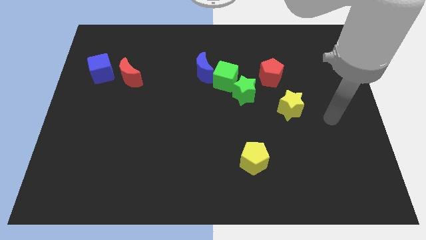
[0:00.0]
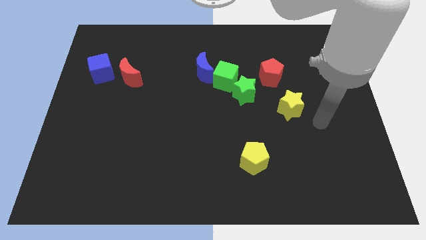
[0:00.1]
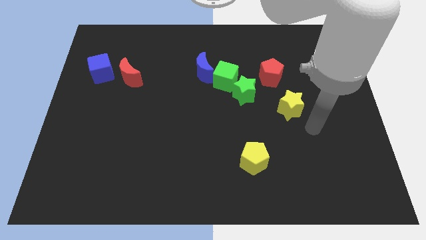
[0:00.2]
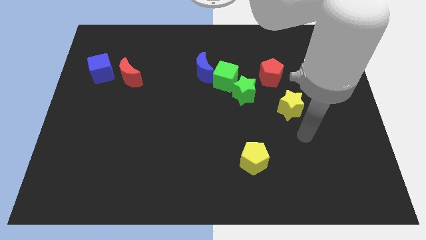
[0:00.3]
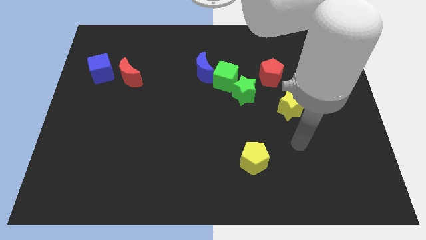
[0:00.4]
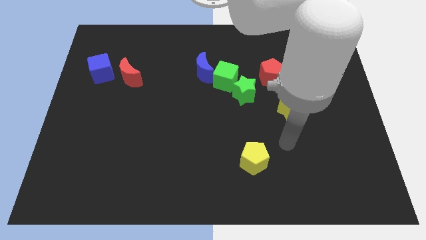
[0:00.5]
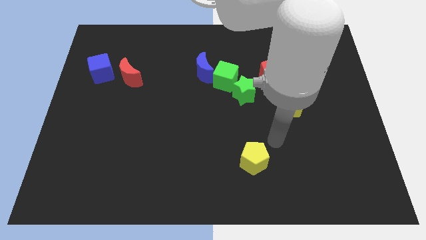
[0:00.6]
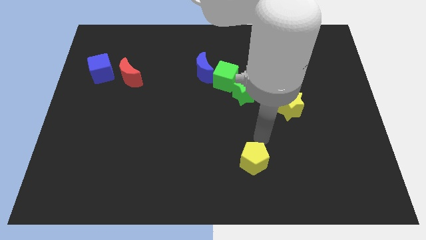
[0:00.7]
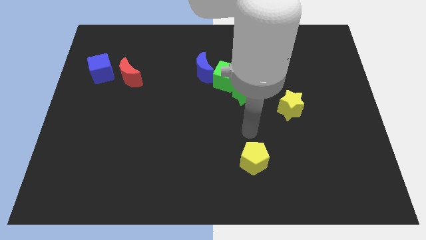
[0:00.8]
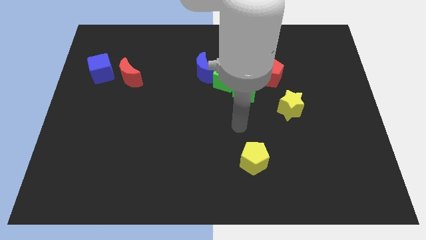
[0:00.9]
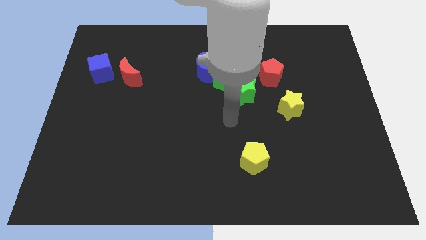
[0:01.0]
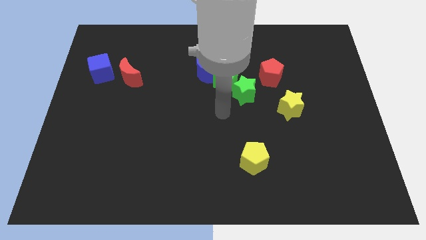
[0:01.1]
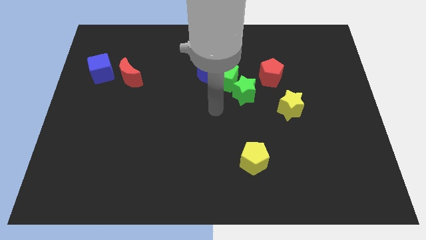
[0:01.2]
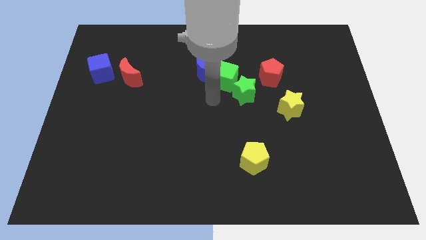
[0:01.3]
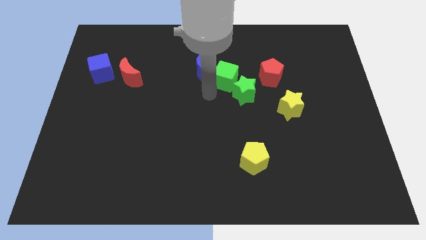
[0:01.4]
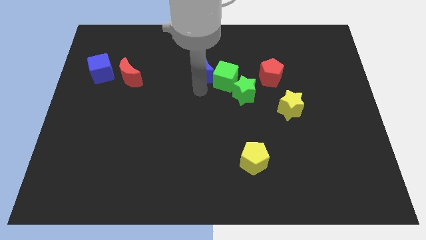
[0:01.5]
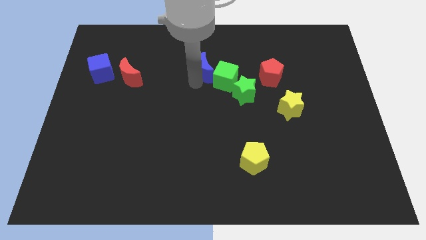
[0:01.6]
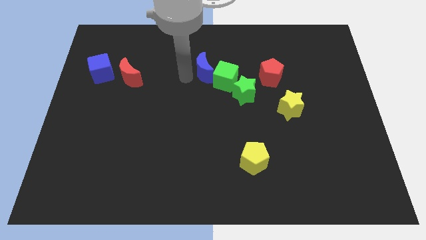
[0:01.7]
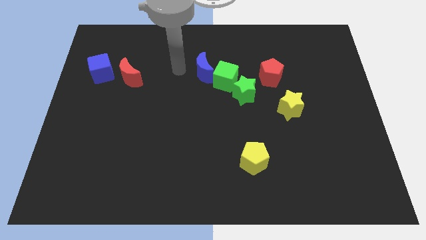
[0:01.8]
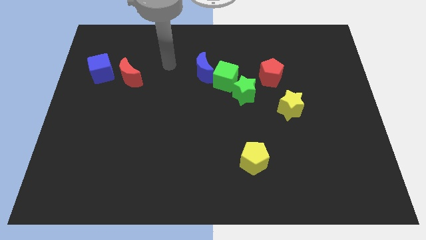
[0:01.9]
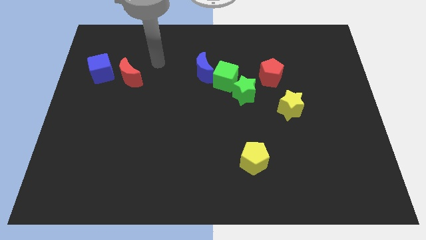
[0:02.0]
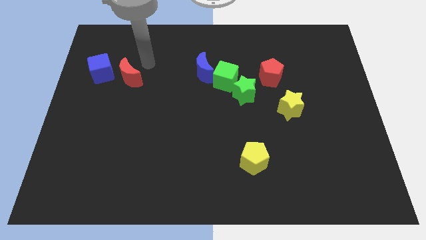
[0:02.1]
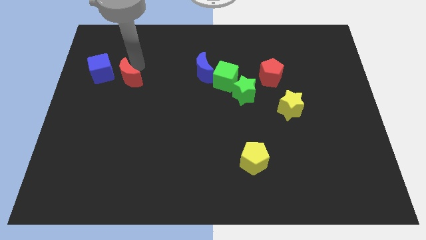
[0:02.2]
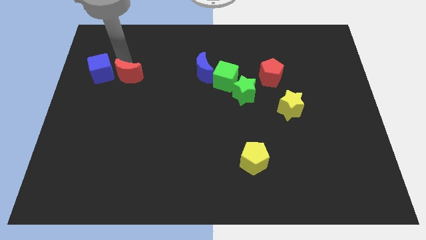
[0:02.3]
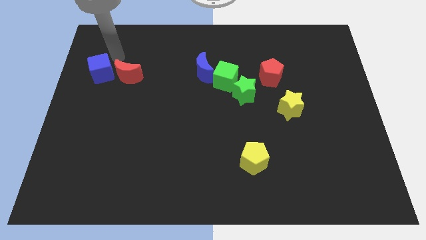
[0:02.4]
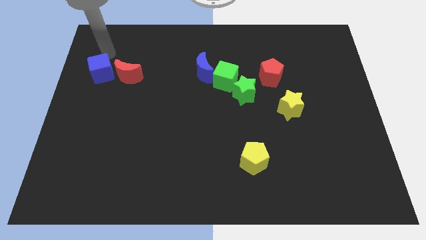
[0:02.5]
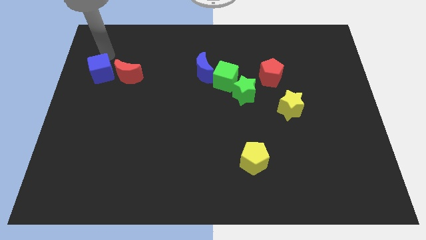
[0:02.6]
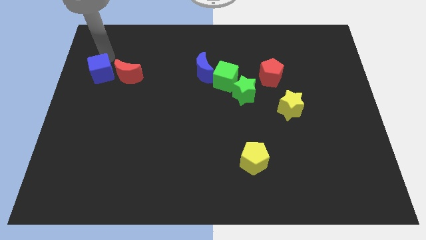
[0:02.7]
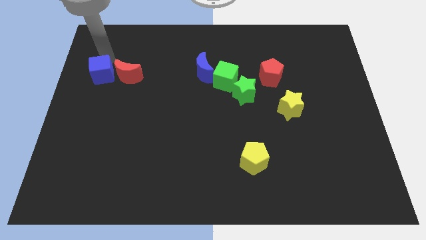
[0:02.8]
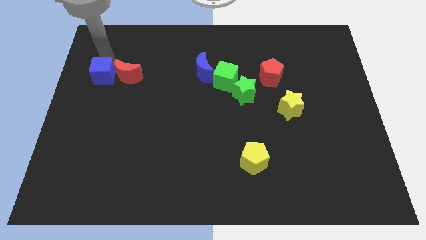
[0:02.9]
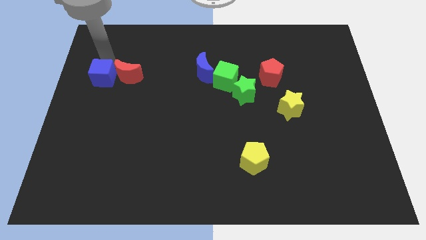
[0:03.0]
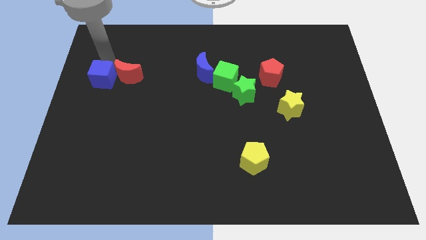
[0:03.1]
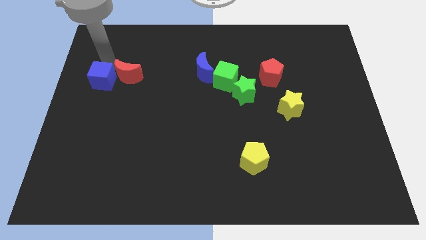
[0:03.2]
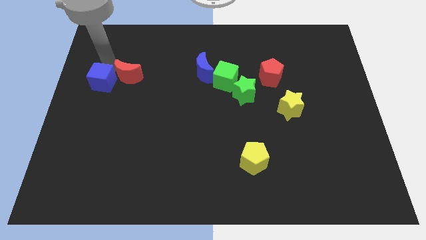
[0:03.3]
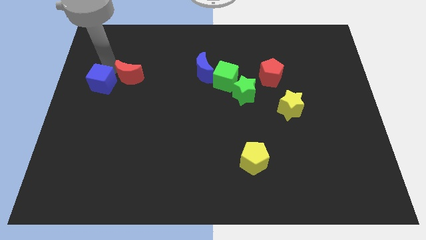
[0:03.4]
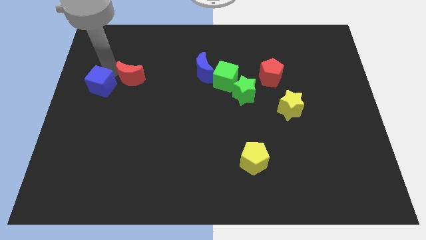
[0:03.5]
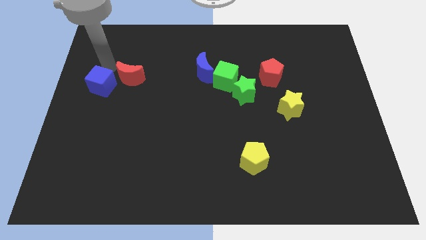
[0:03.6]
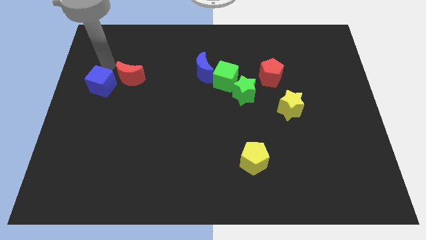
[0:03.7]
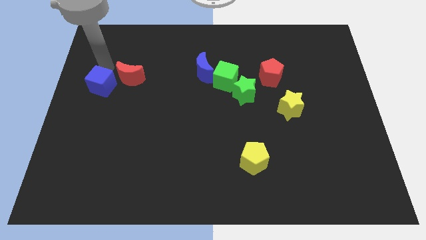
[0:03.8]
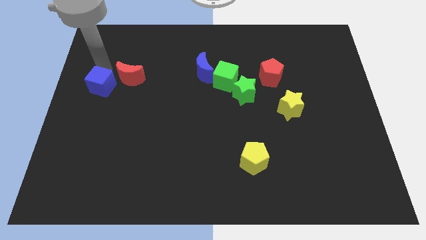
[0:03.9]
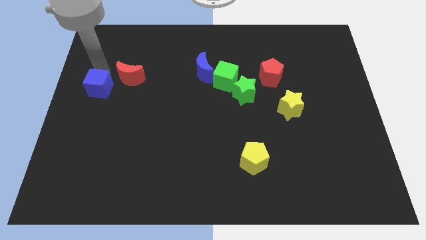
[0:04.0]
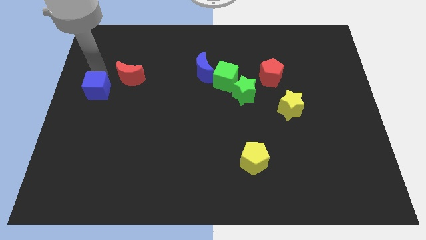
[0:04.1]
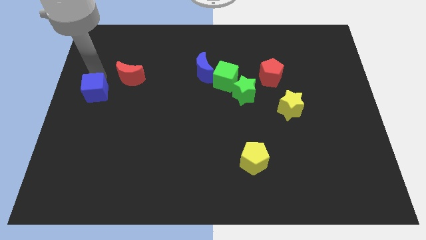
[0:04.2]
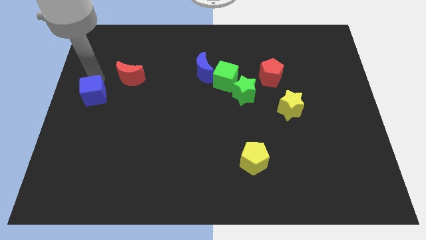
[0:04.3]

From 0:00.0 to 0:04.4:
slide the blue cube a little downwards

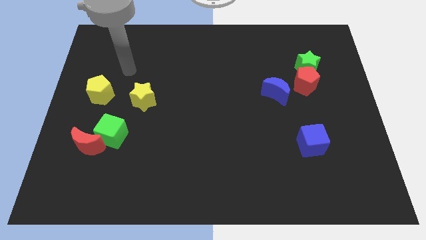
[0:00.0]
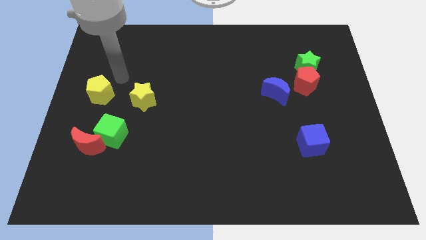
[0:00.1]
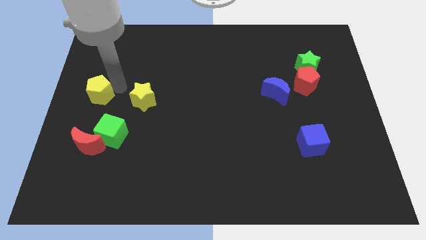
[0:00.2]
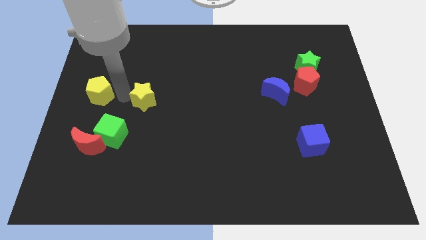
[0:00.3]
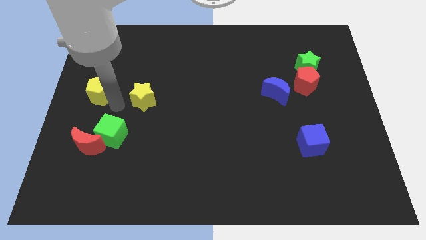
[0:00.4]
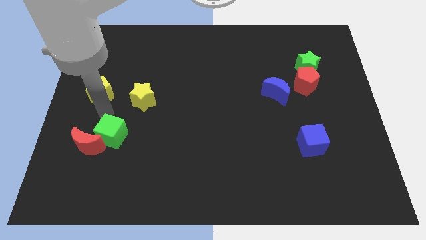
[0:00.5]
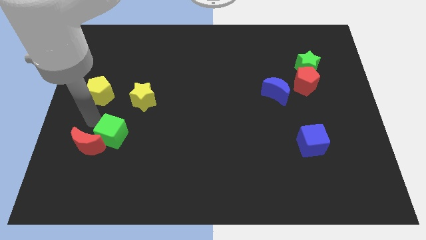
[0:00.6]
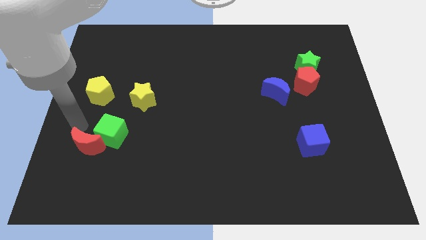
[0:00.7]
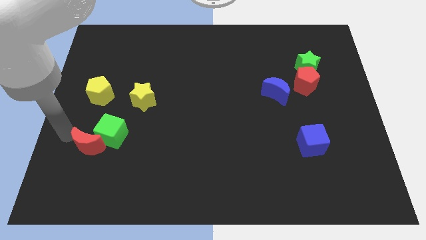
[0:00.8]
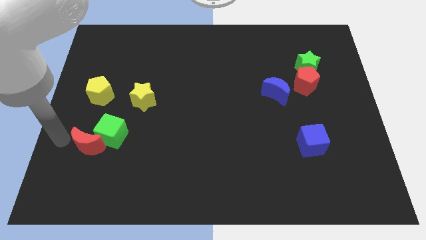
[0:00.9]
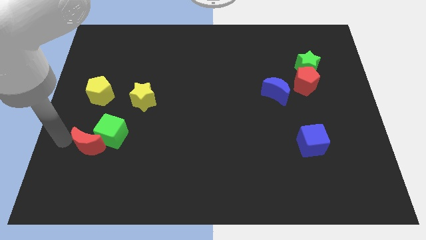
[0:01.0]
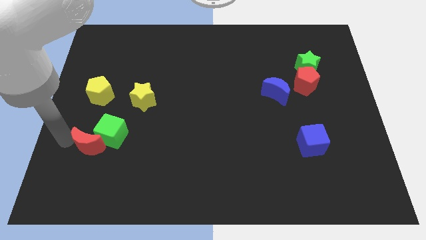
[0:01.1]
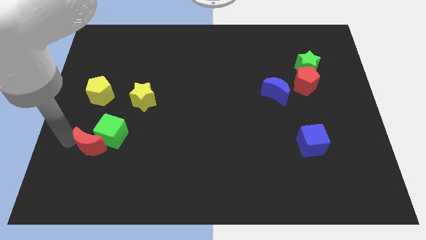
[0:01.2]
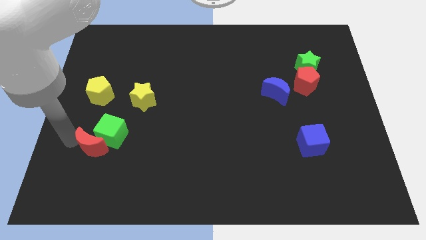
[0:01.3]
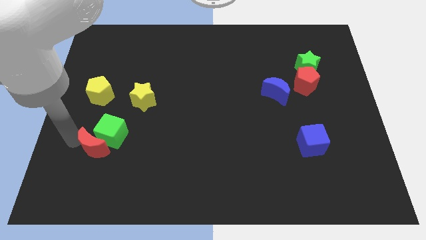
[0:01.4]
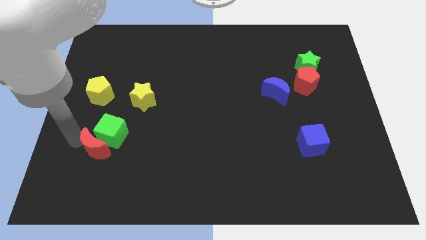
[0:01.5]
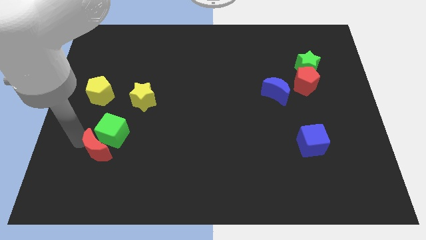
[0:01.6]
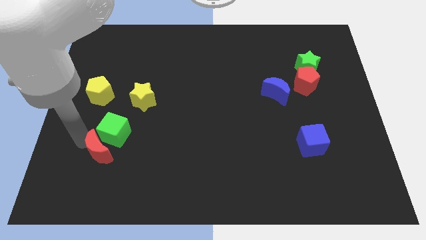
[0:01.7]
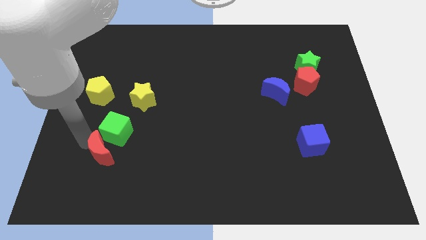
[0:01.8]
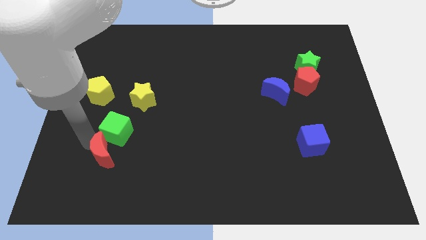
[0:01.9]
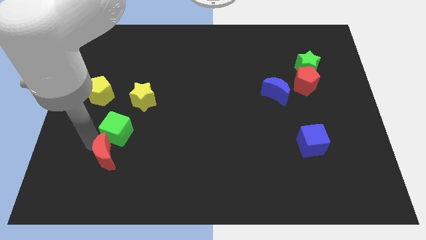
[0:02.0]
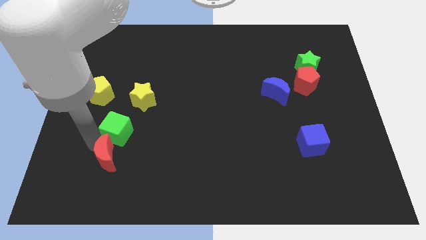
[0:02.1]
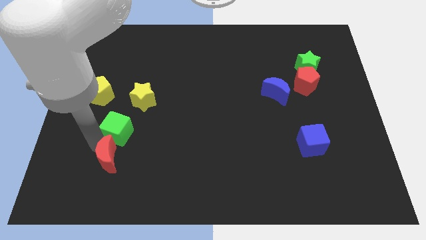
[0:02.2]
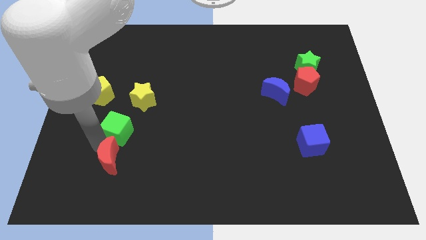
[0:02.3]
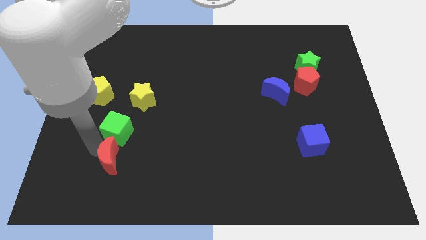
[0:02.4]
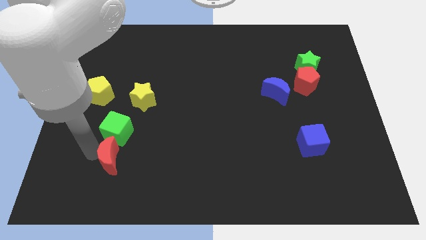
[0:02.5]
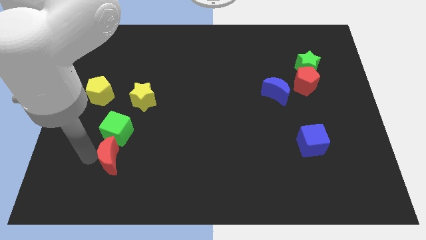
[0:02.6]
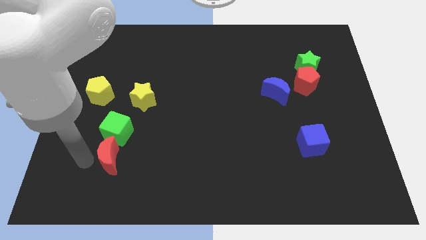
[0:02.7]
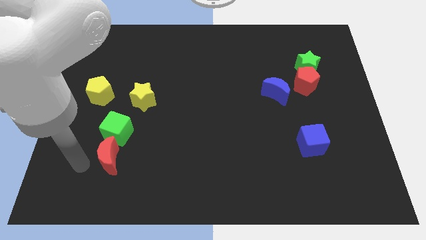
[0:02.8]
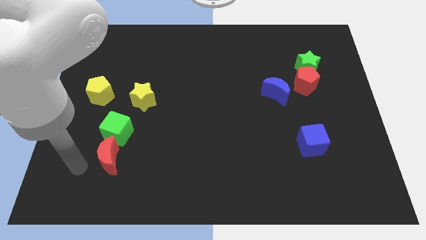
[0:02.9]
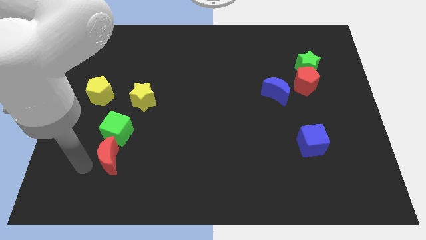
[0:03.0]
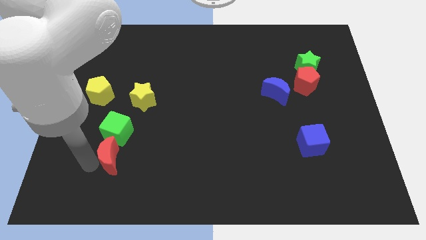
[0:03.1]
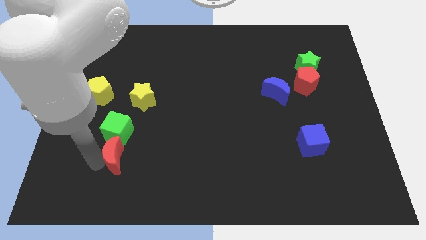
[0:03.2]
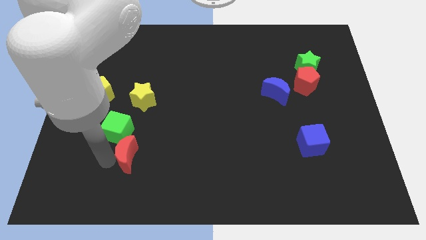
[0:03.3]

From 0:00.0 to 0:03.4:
push the red moon a little bit to the right
